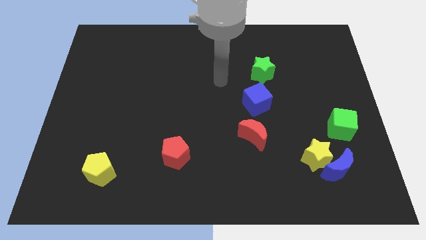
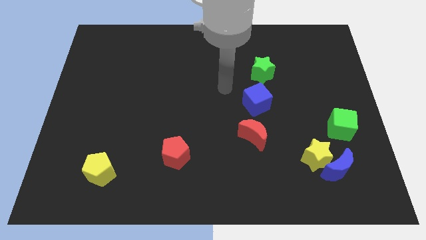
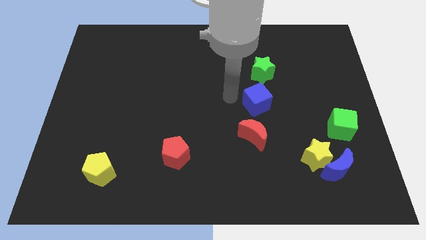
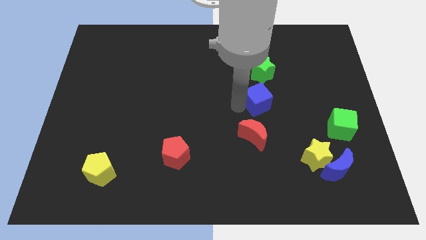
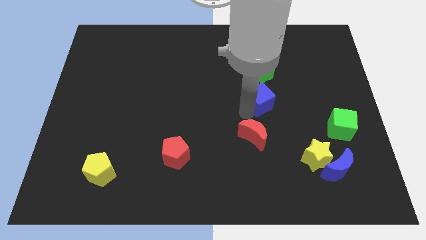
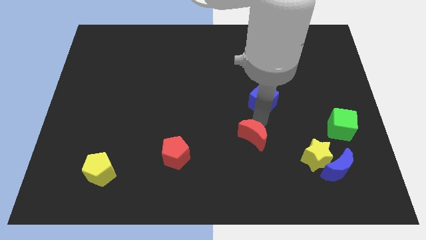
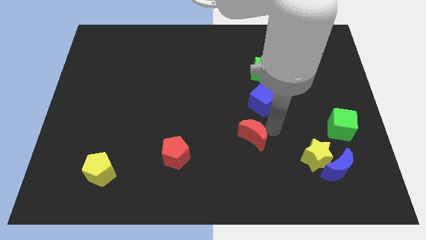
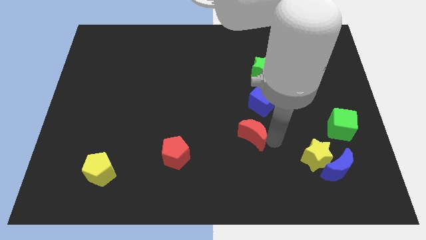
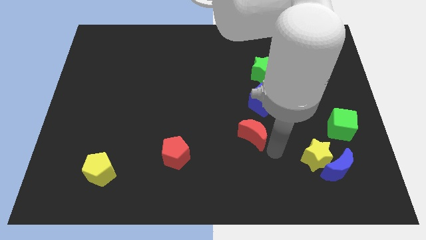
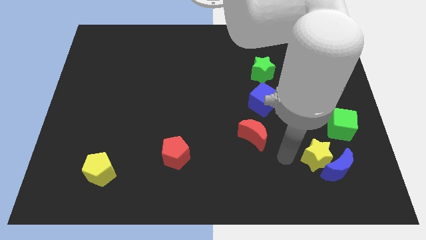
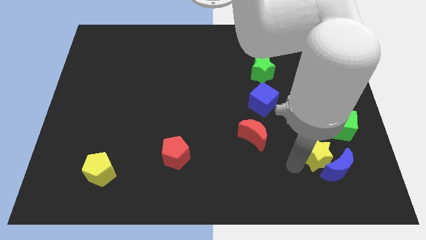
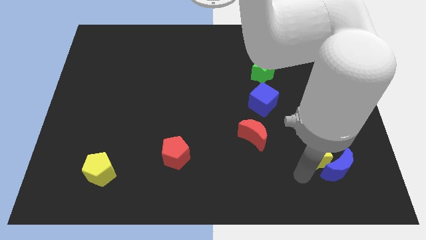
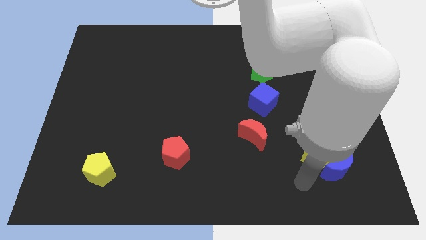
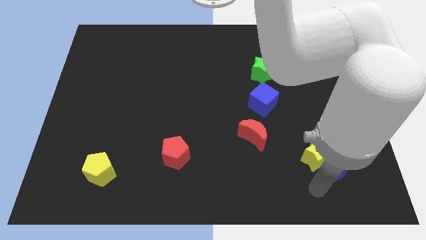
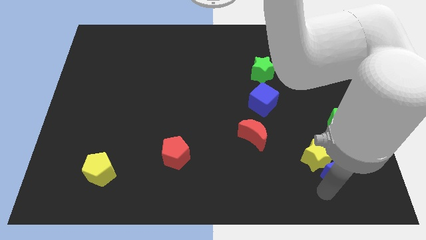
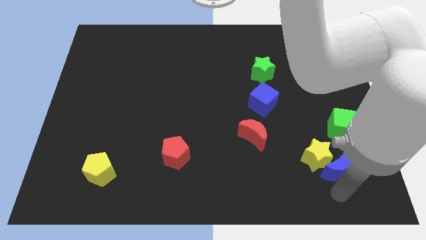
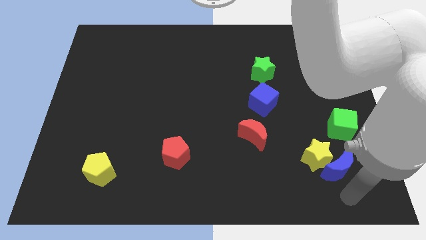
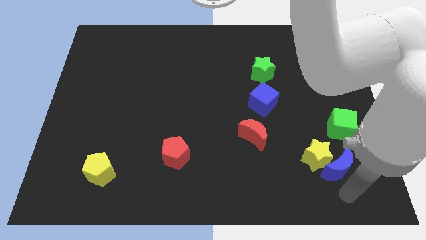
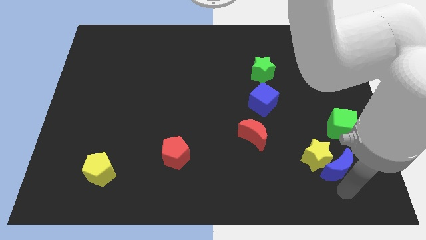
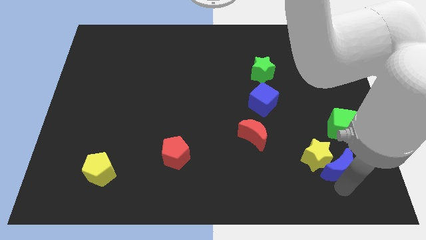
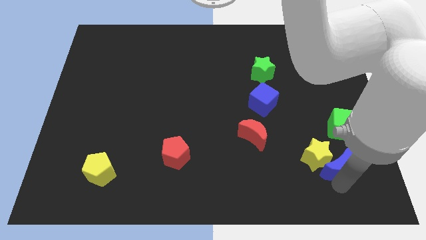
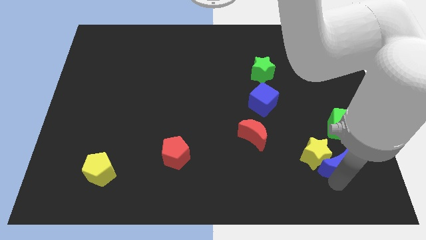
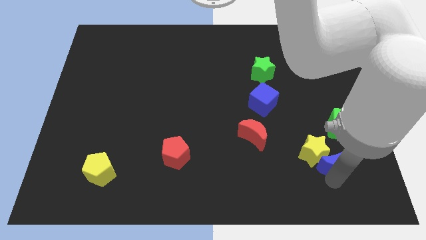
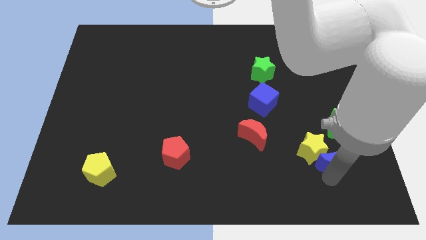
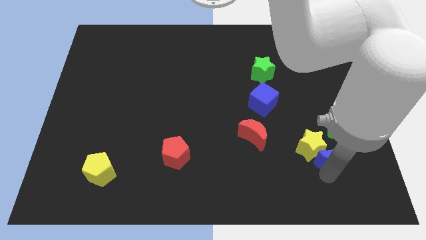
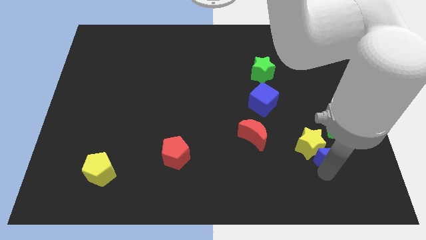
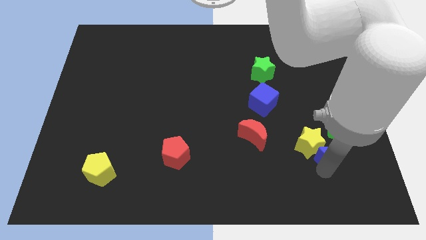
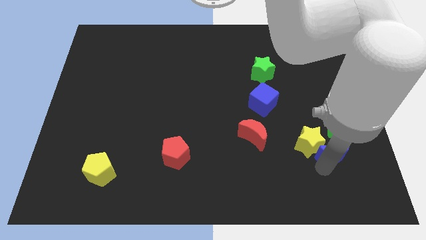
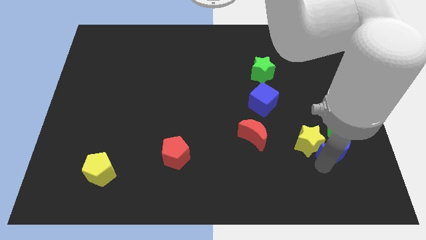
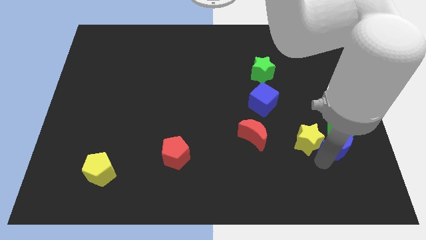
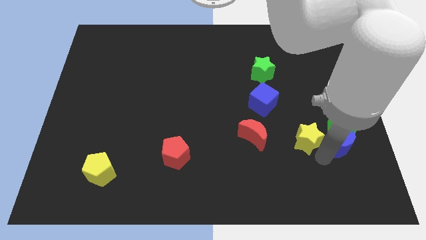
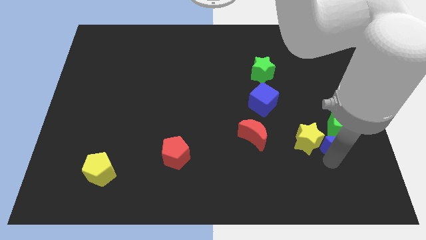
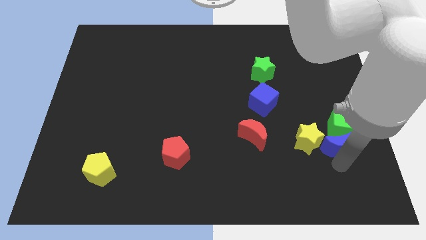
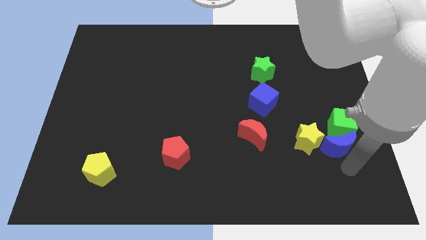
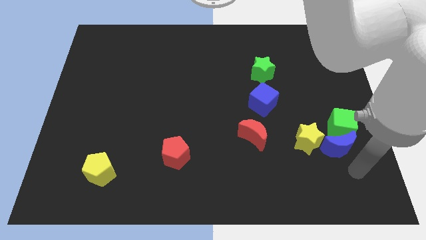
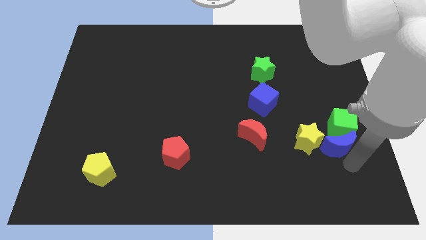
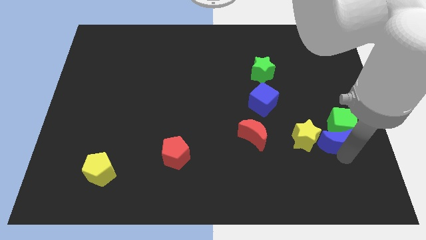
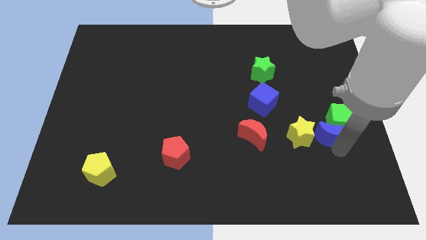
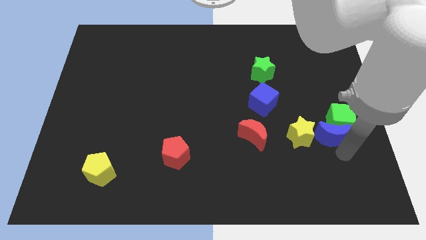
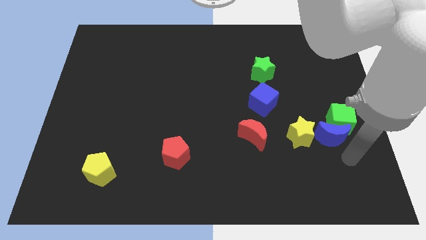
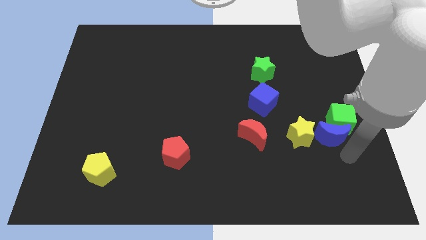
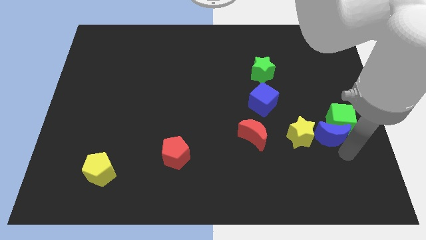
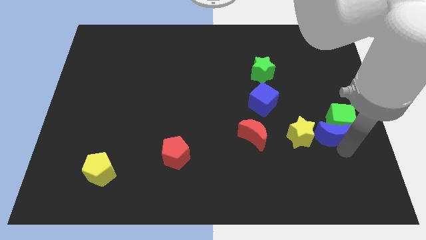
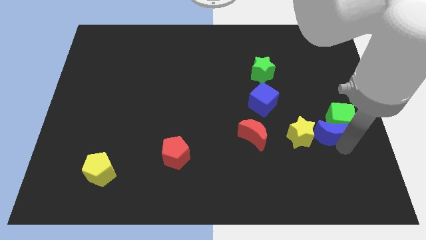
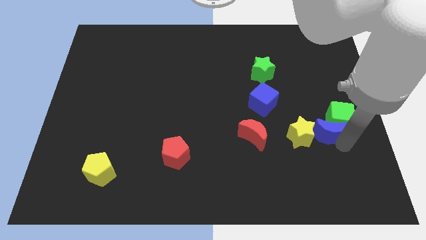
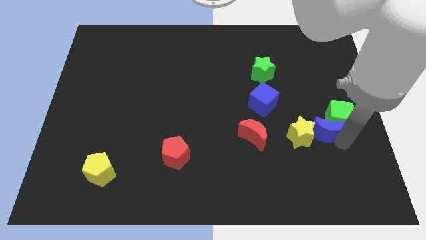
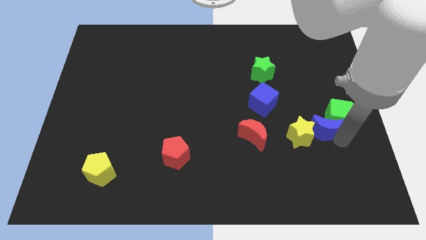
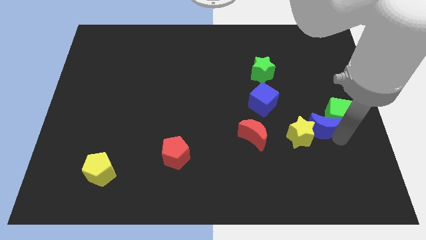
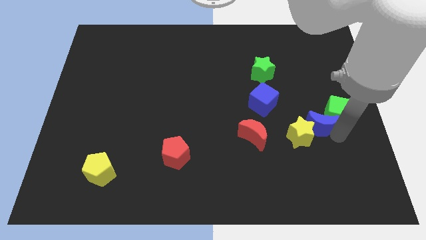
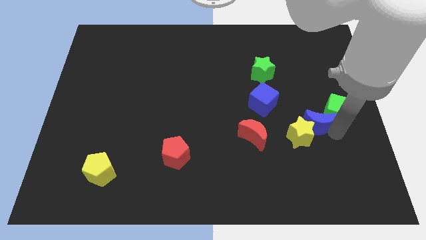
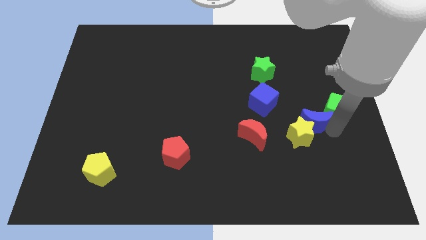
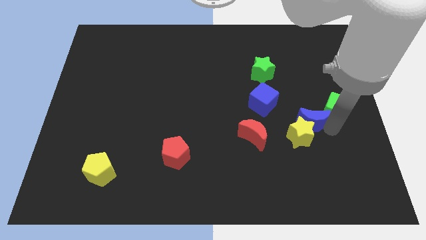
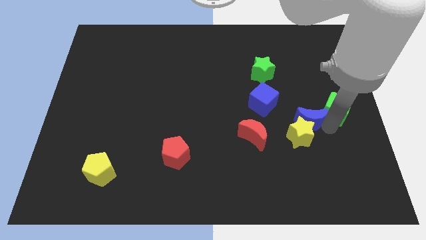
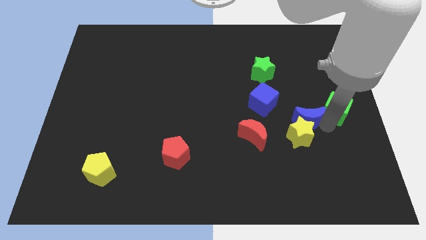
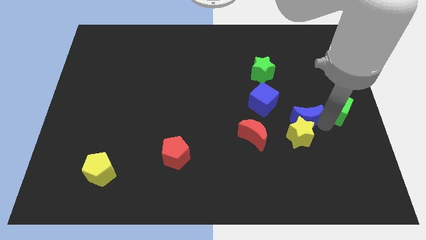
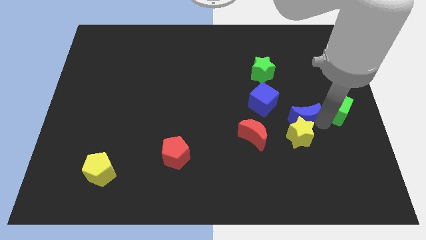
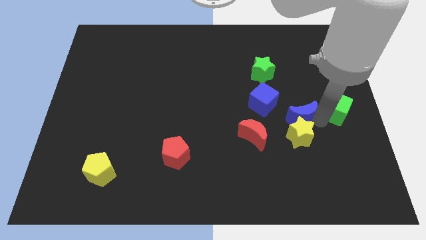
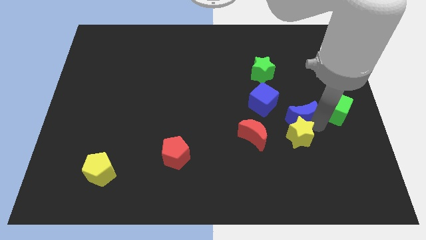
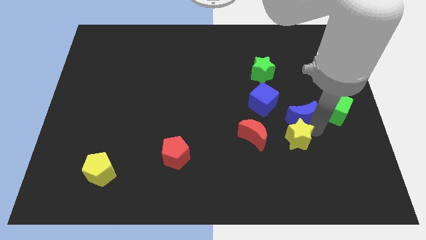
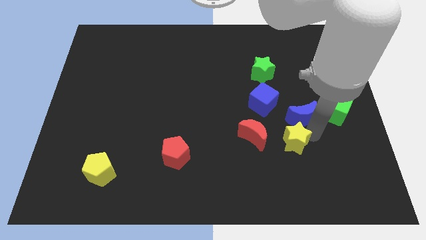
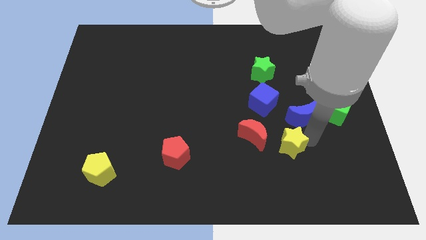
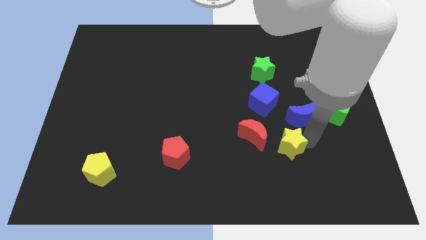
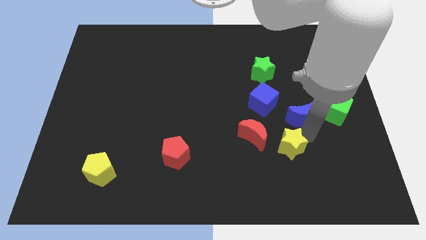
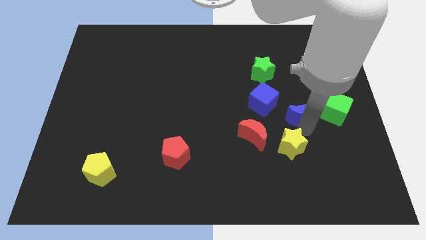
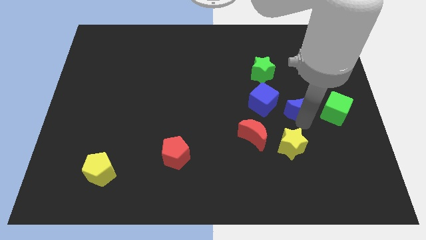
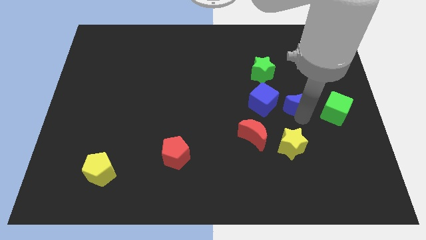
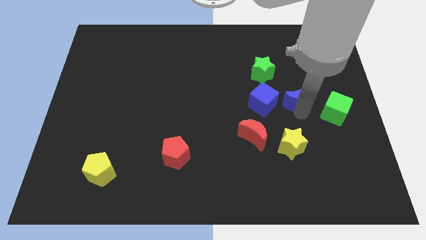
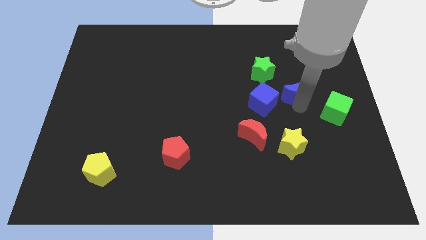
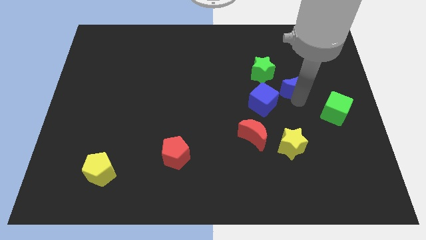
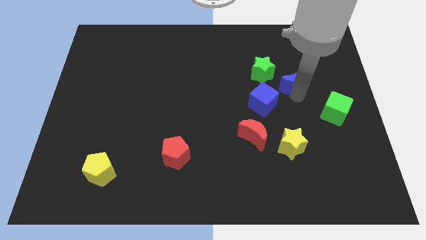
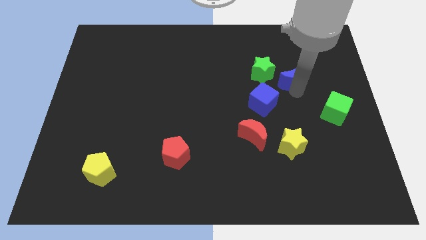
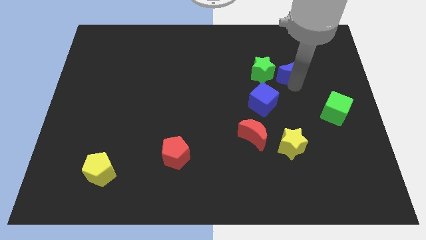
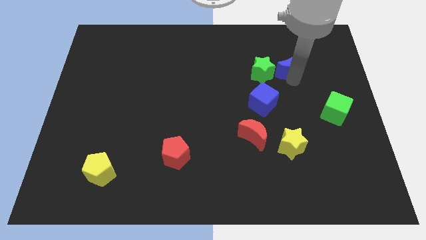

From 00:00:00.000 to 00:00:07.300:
push the blue moon diagonally up and to the right of the green star

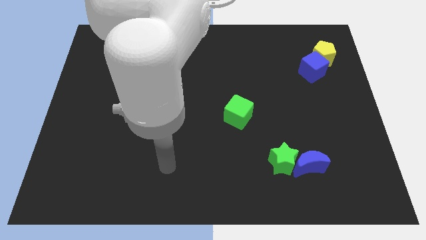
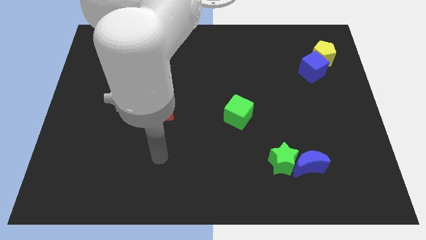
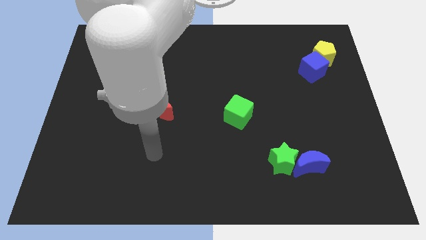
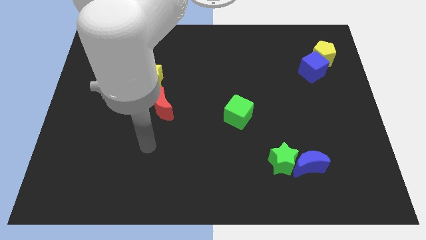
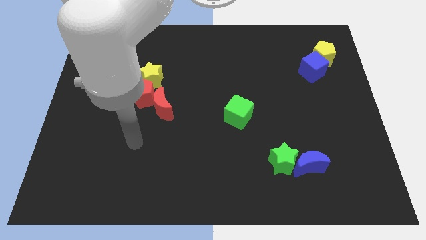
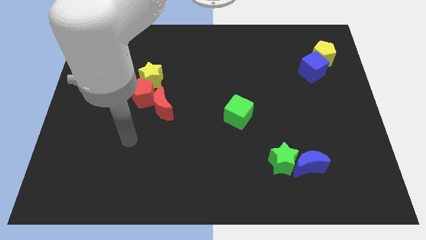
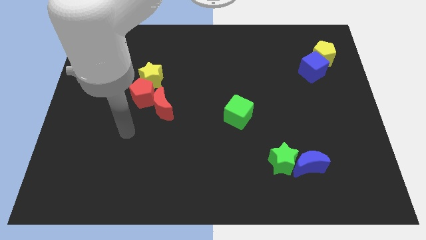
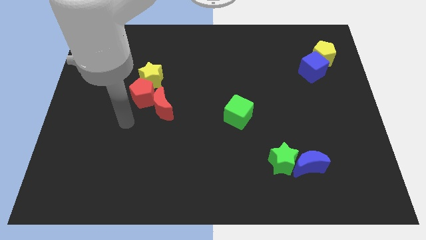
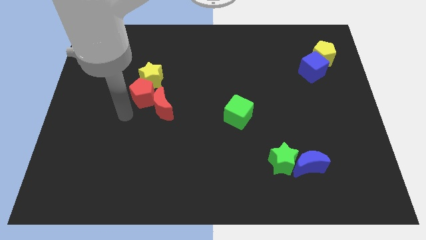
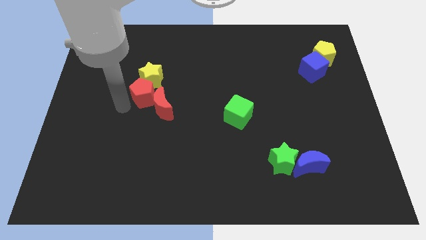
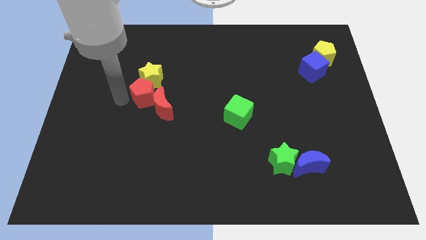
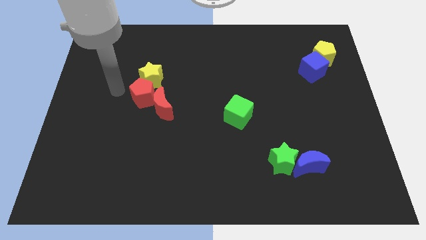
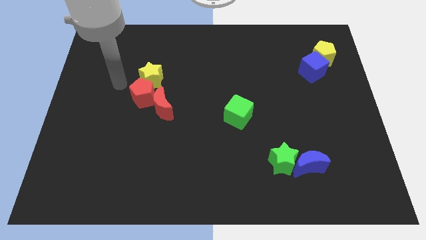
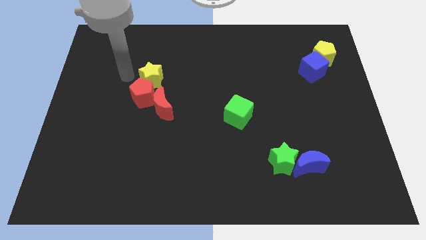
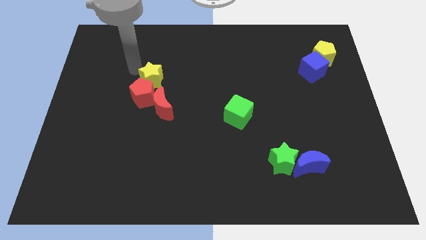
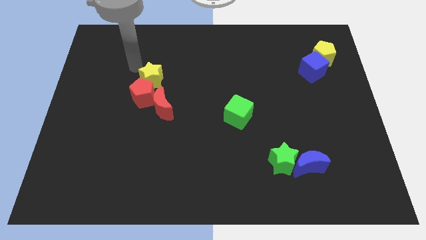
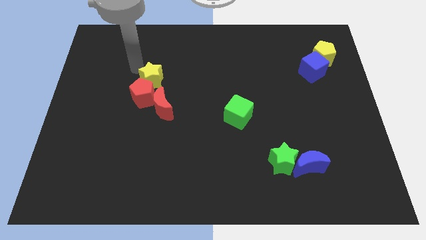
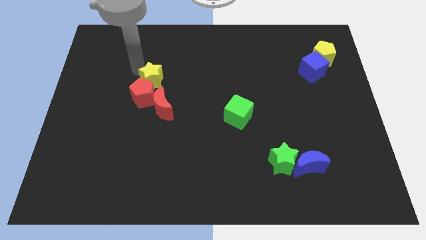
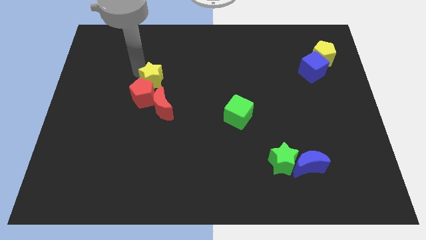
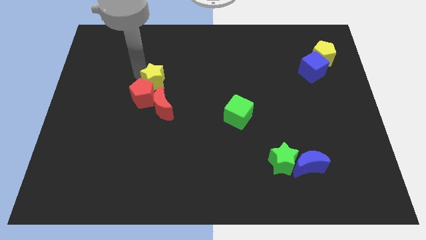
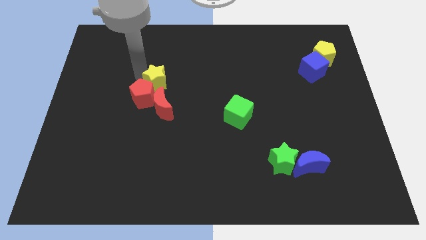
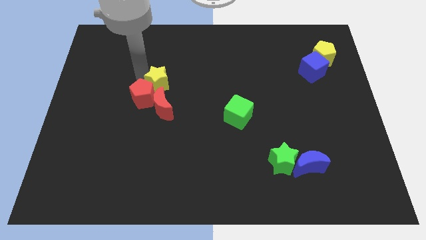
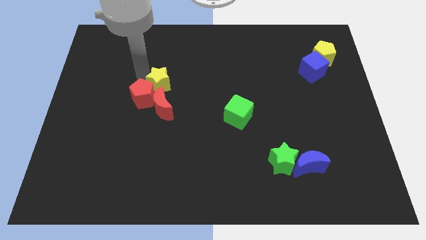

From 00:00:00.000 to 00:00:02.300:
slide the yellow star right of the red pentagon
